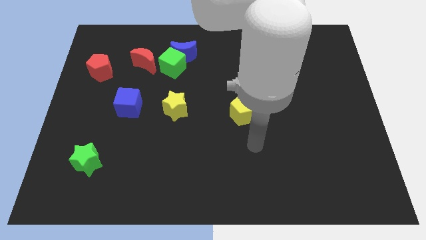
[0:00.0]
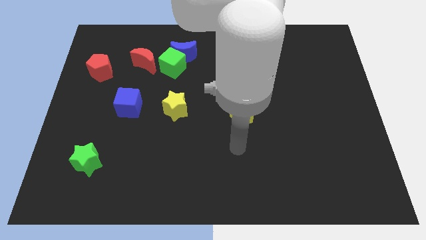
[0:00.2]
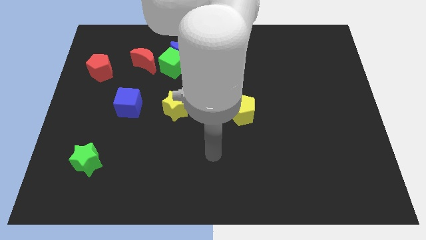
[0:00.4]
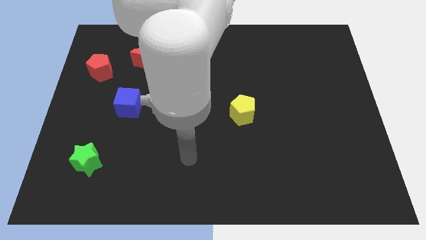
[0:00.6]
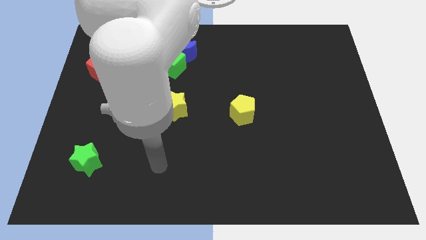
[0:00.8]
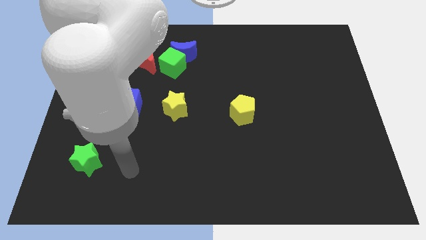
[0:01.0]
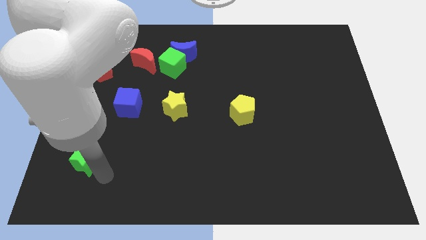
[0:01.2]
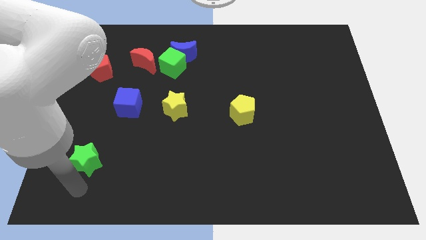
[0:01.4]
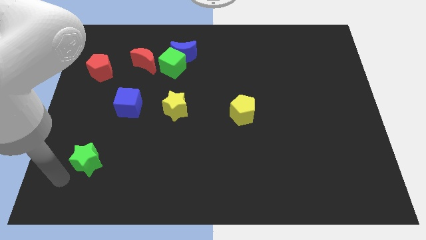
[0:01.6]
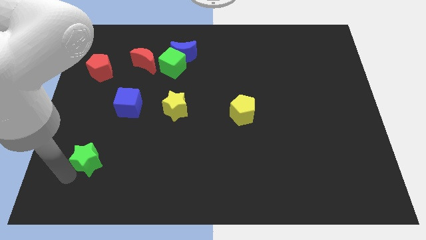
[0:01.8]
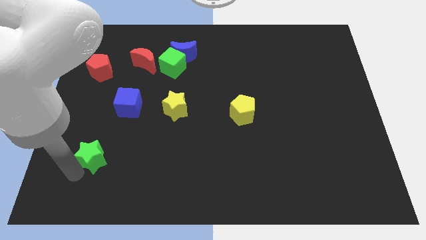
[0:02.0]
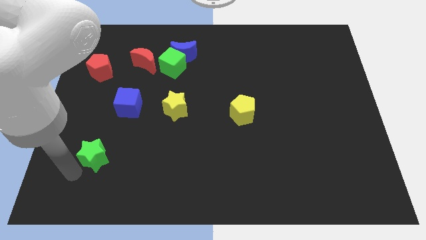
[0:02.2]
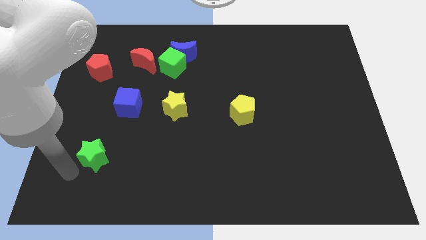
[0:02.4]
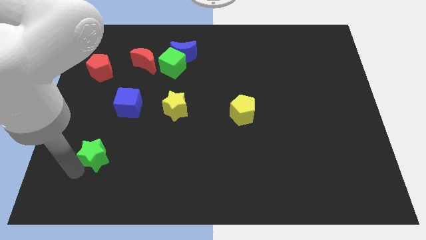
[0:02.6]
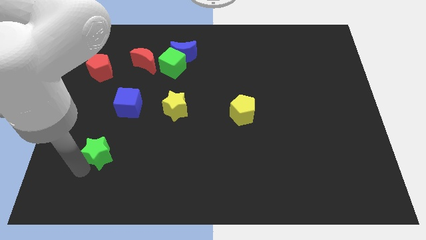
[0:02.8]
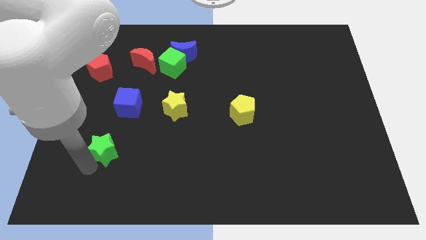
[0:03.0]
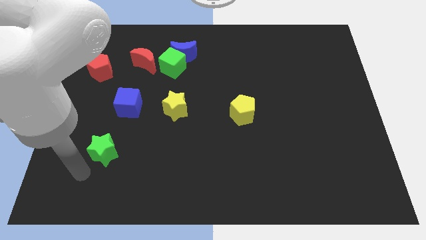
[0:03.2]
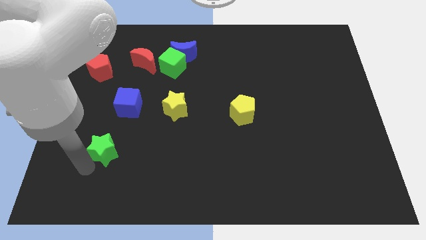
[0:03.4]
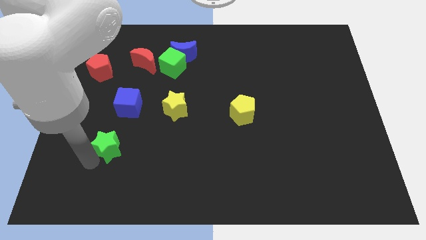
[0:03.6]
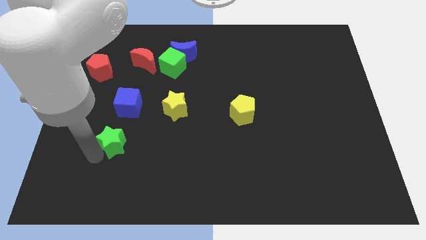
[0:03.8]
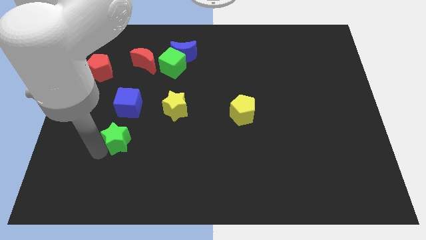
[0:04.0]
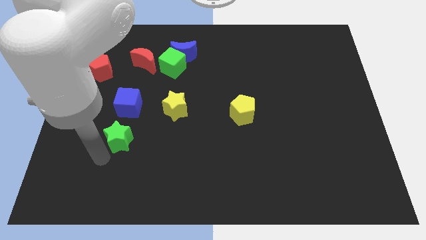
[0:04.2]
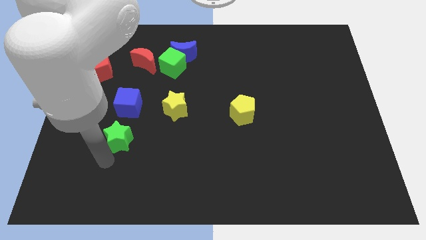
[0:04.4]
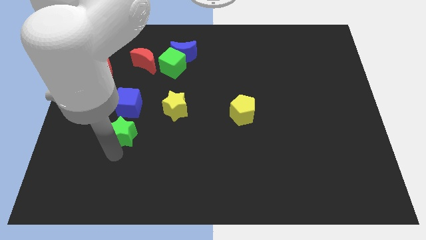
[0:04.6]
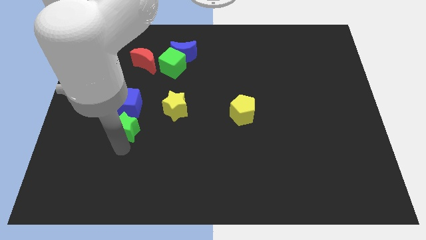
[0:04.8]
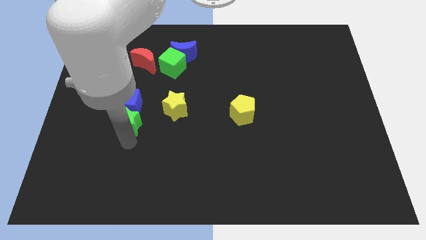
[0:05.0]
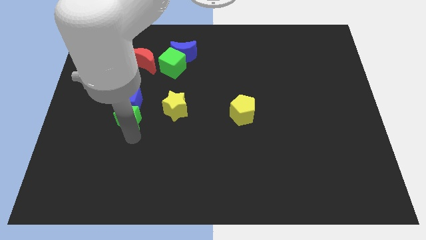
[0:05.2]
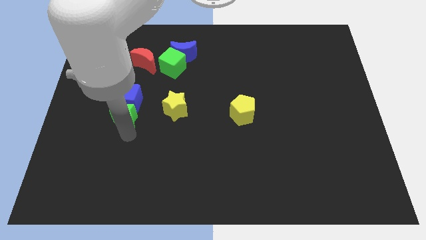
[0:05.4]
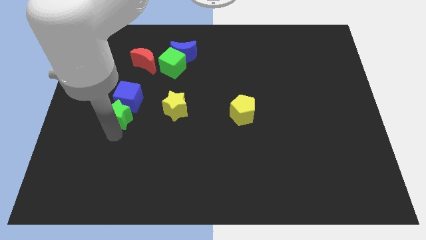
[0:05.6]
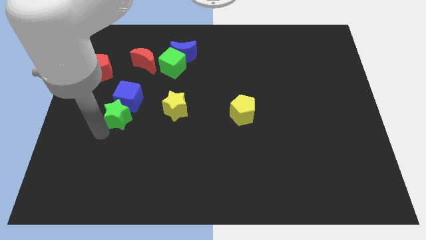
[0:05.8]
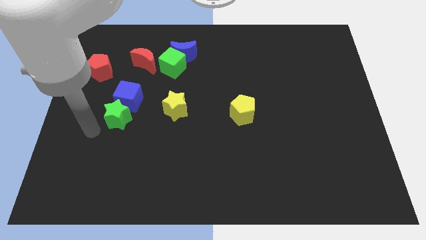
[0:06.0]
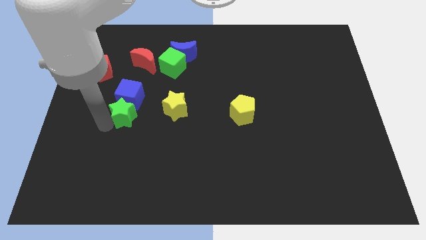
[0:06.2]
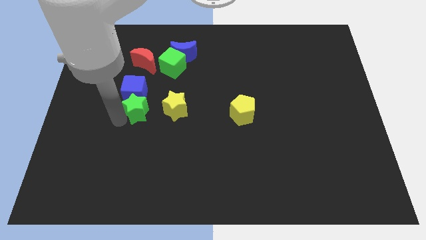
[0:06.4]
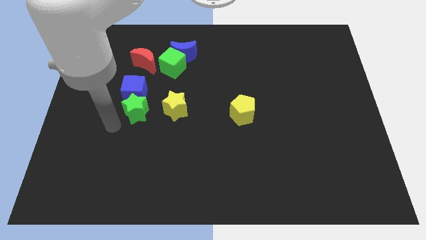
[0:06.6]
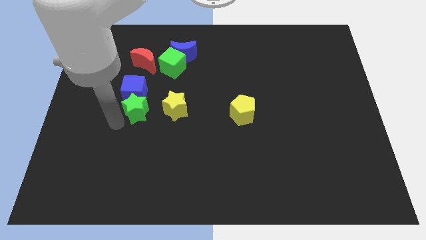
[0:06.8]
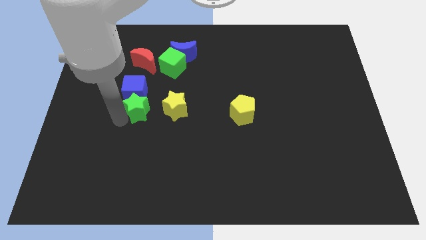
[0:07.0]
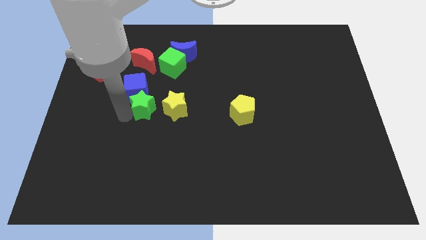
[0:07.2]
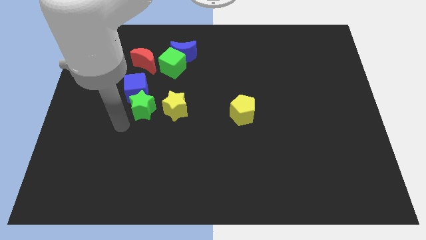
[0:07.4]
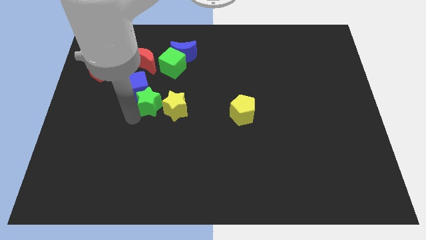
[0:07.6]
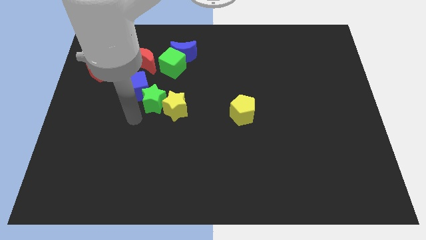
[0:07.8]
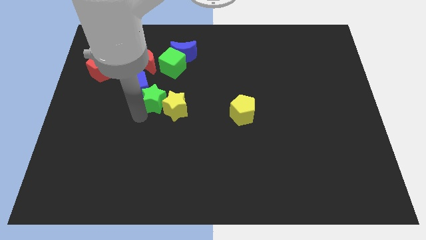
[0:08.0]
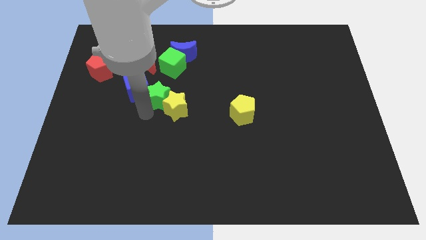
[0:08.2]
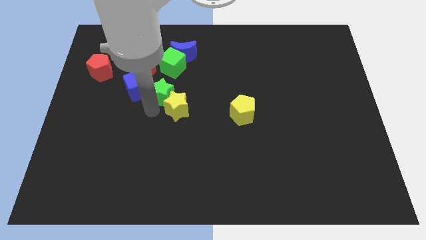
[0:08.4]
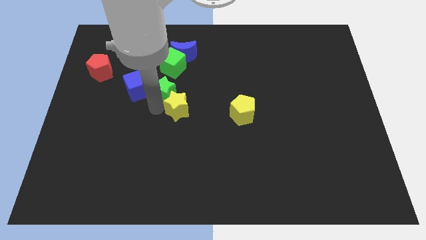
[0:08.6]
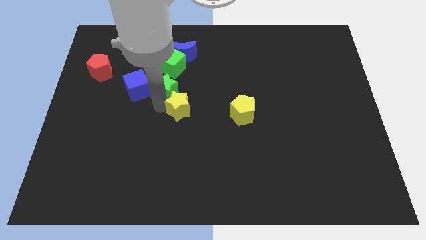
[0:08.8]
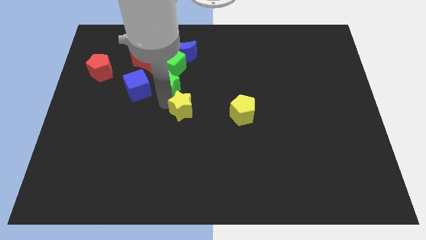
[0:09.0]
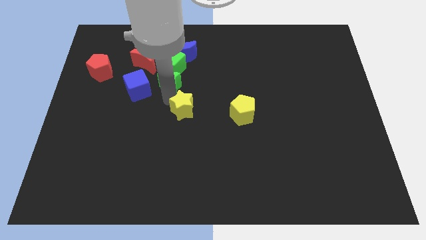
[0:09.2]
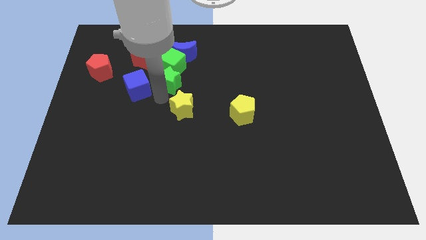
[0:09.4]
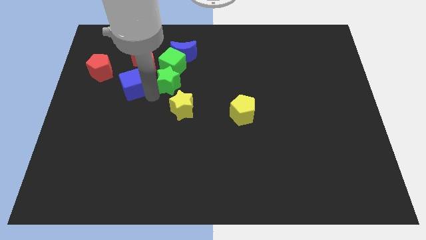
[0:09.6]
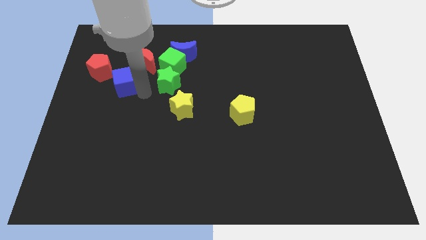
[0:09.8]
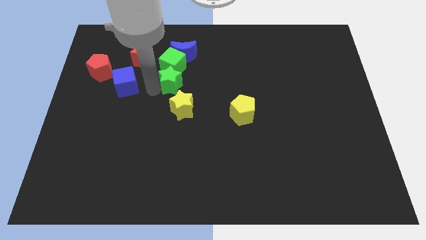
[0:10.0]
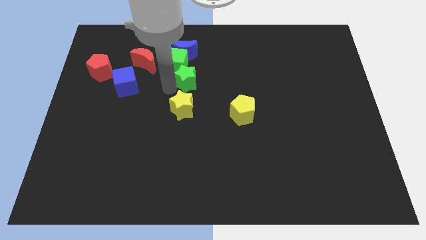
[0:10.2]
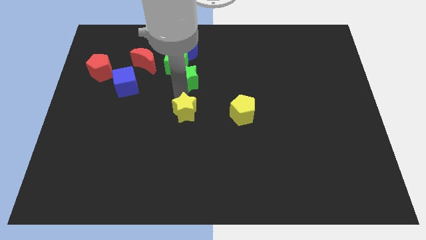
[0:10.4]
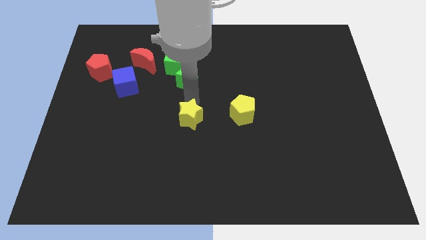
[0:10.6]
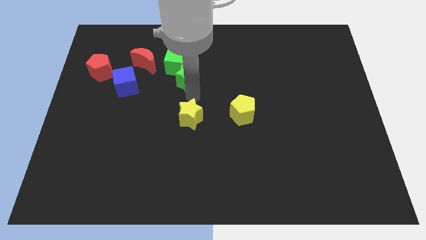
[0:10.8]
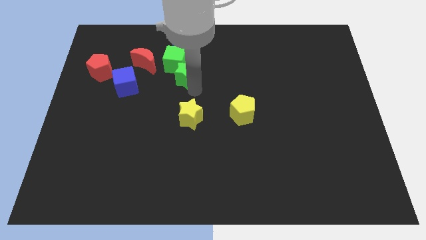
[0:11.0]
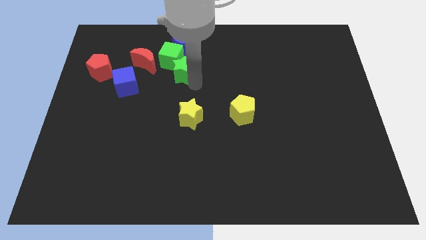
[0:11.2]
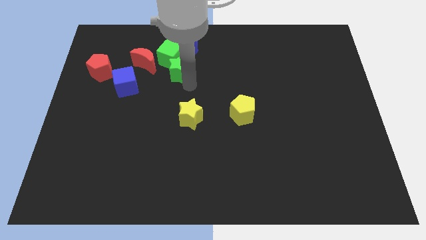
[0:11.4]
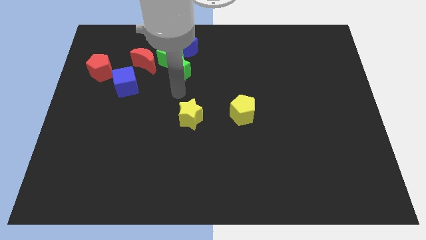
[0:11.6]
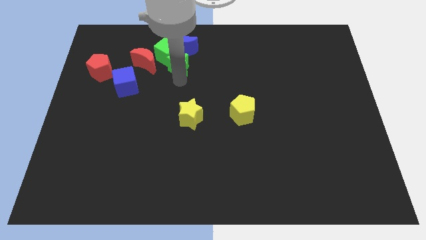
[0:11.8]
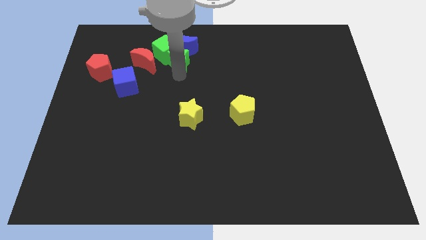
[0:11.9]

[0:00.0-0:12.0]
put the green star towards the blue moon

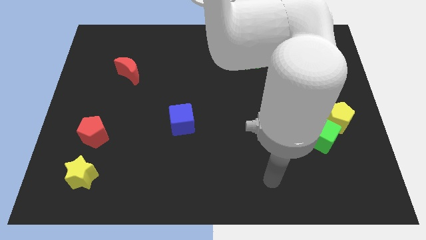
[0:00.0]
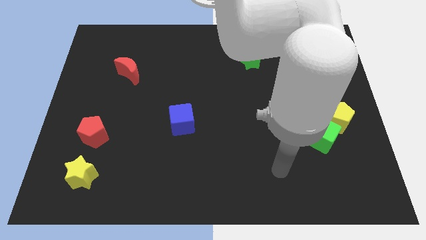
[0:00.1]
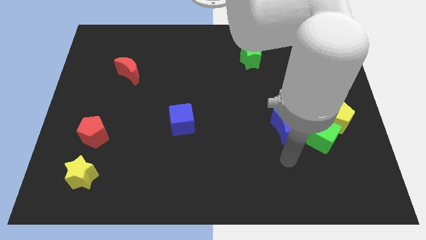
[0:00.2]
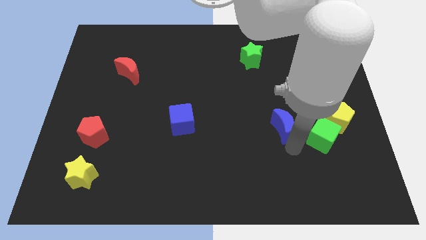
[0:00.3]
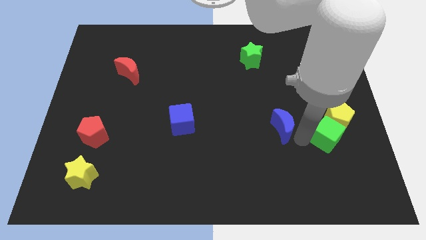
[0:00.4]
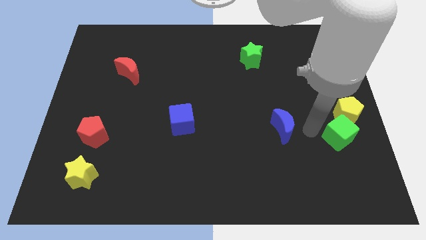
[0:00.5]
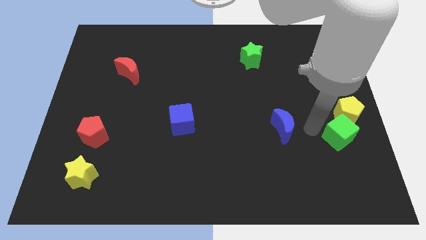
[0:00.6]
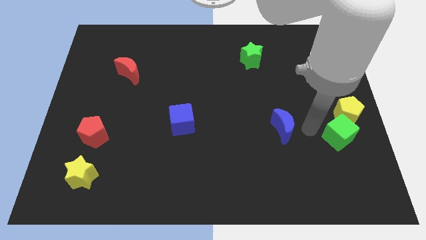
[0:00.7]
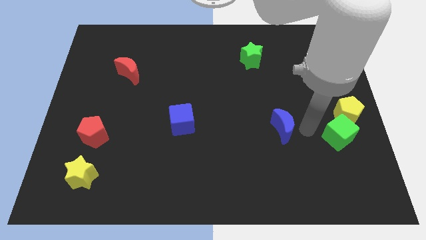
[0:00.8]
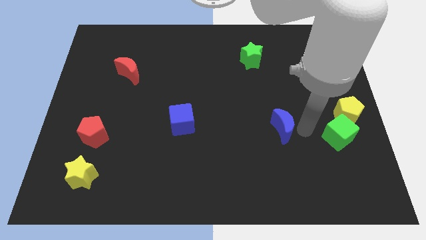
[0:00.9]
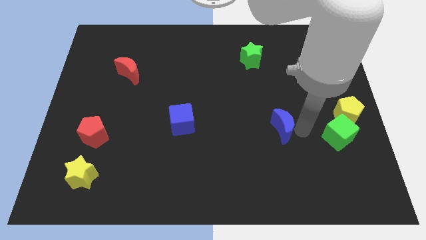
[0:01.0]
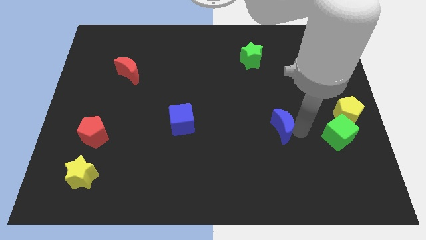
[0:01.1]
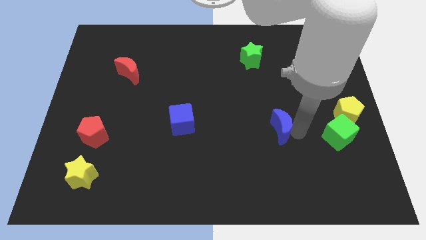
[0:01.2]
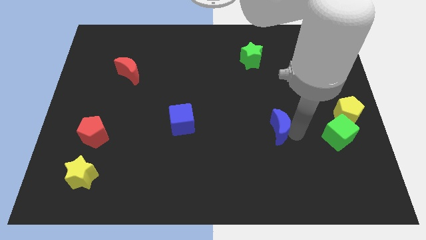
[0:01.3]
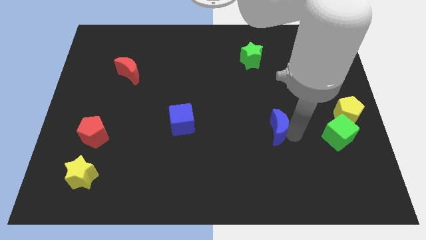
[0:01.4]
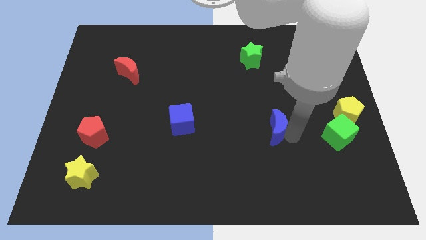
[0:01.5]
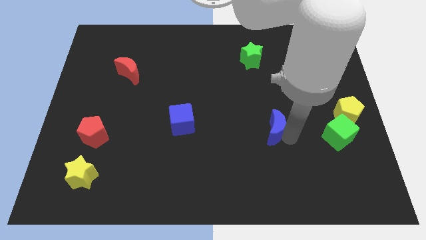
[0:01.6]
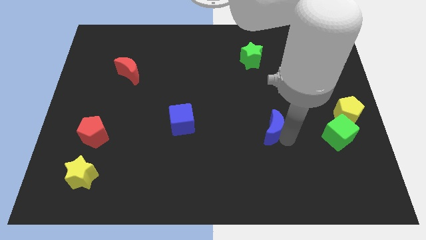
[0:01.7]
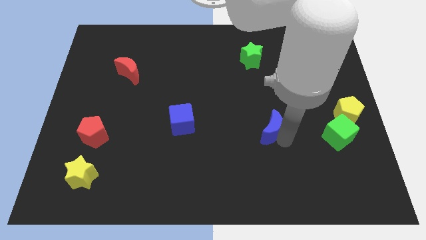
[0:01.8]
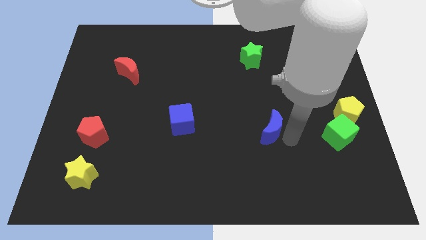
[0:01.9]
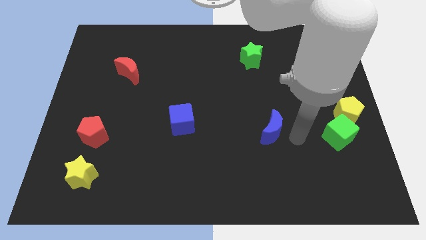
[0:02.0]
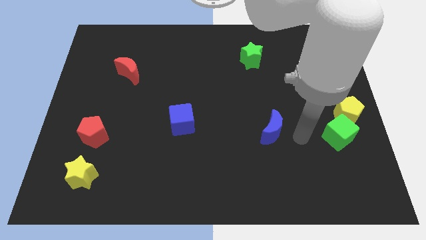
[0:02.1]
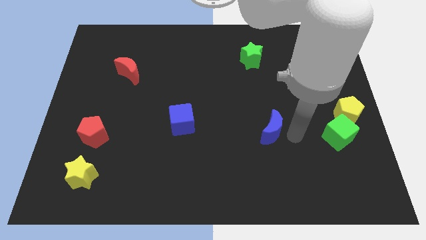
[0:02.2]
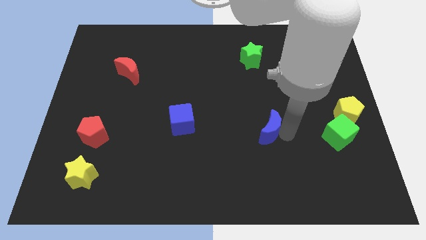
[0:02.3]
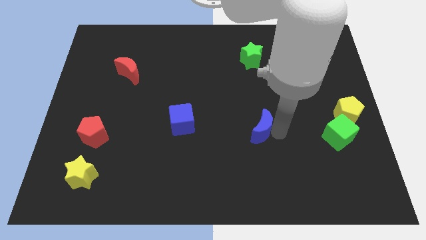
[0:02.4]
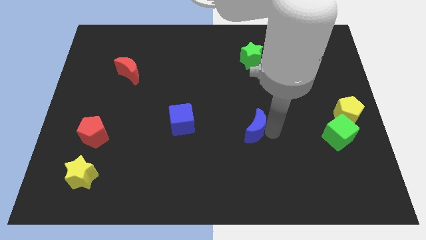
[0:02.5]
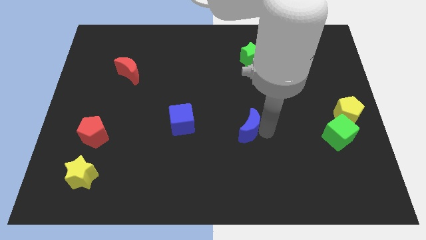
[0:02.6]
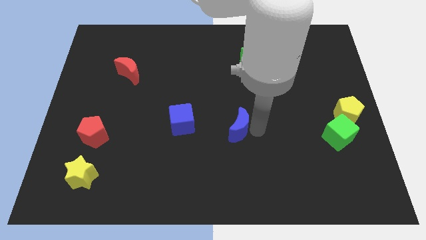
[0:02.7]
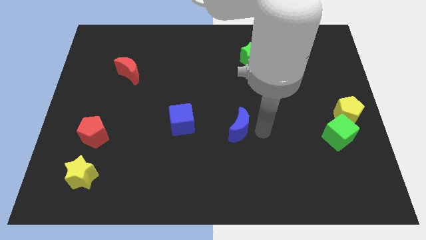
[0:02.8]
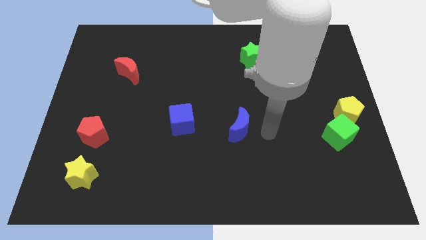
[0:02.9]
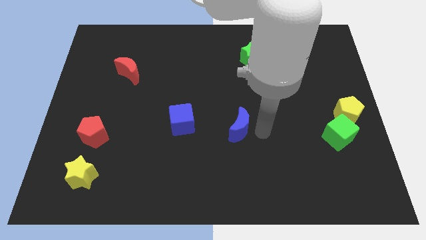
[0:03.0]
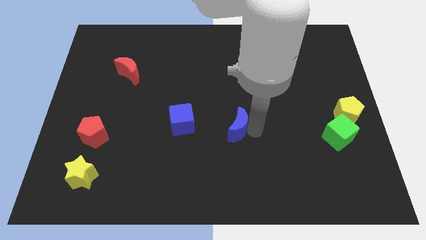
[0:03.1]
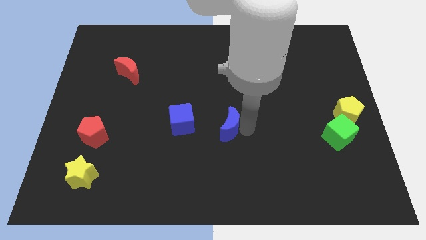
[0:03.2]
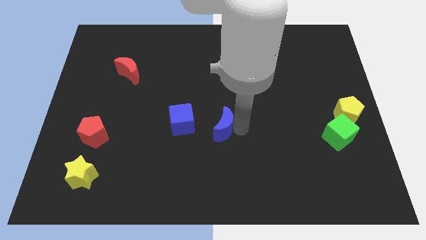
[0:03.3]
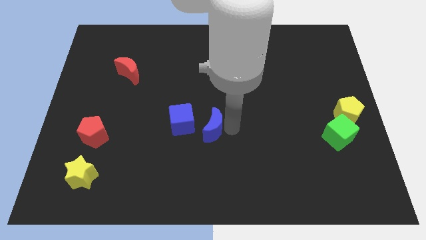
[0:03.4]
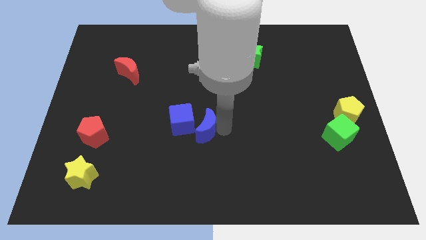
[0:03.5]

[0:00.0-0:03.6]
put the blue moon towards the blue cube
